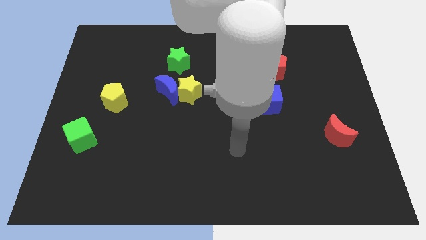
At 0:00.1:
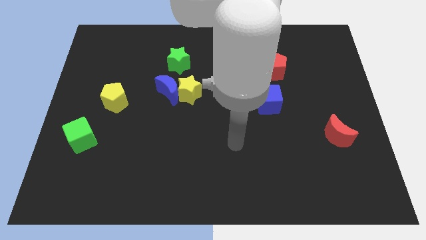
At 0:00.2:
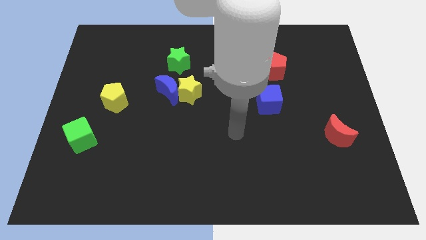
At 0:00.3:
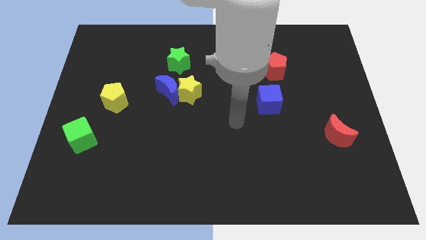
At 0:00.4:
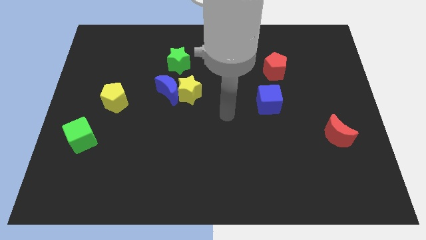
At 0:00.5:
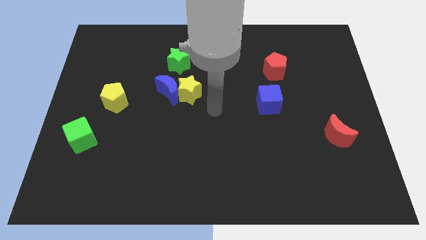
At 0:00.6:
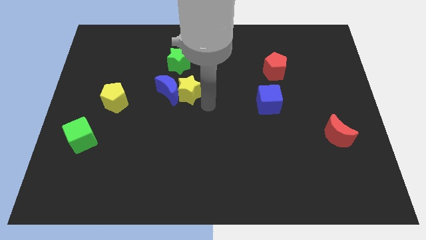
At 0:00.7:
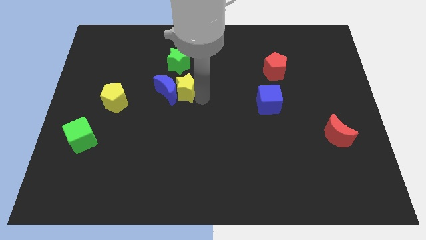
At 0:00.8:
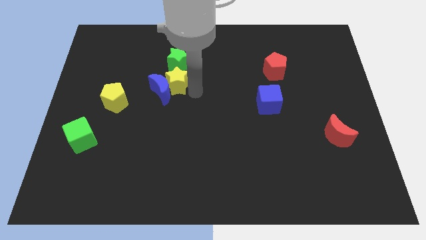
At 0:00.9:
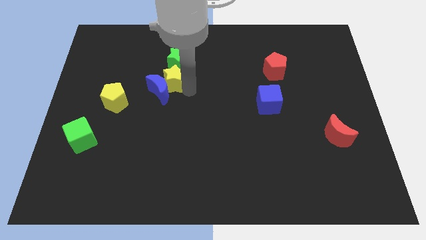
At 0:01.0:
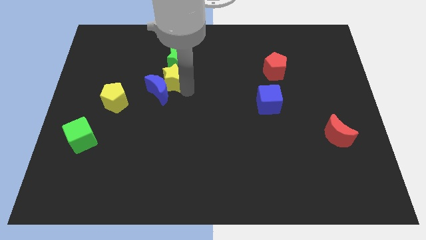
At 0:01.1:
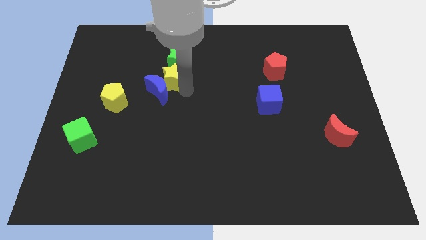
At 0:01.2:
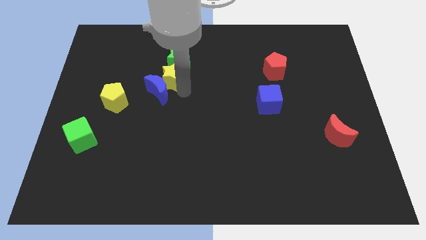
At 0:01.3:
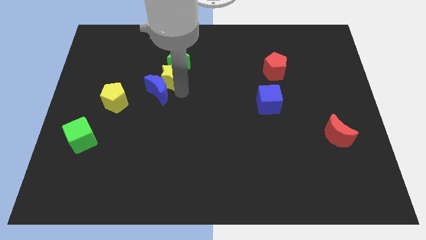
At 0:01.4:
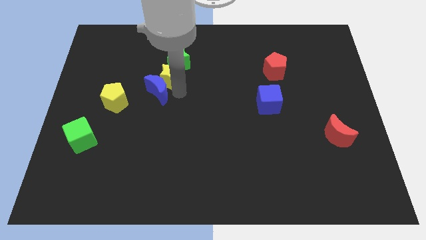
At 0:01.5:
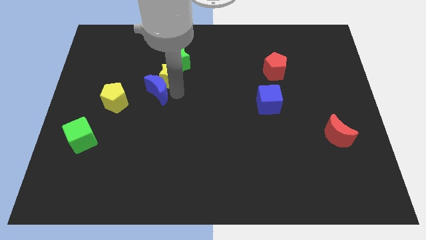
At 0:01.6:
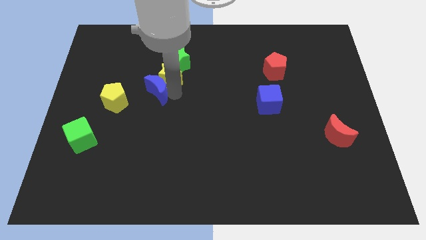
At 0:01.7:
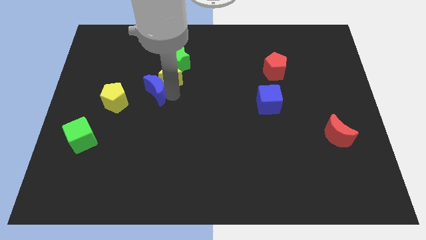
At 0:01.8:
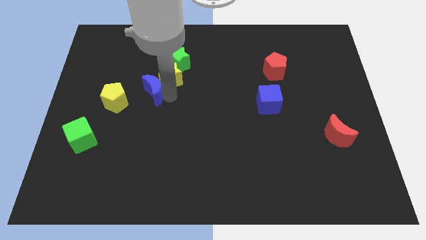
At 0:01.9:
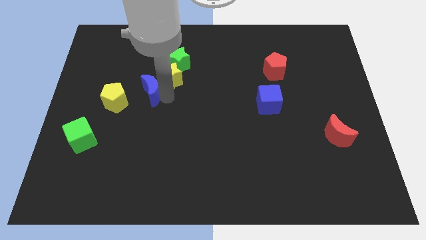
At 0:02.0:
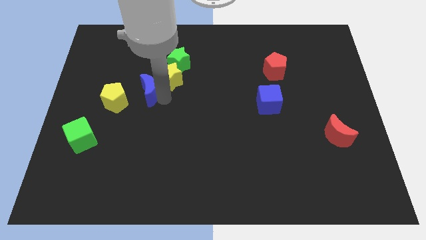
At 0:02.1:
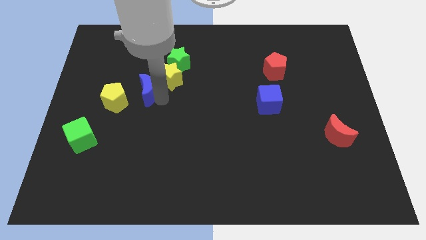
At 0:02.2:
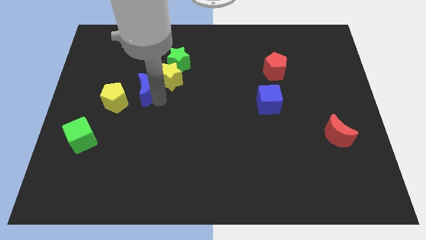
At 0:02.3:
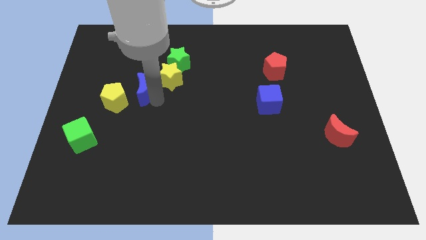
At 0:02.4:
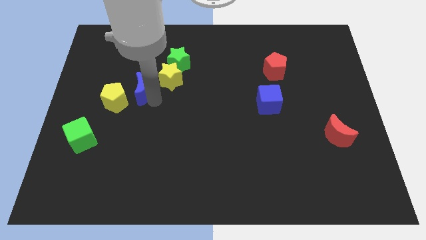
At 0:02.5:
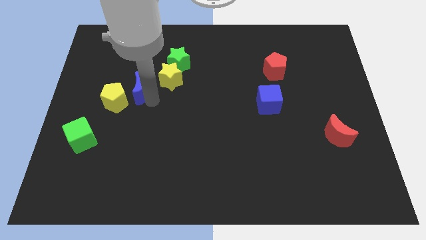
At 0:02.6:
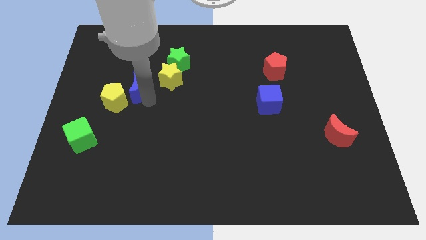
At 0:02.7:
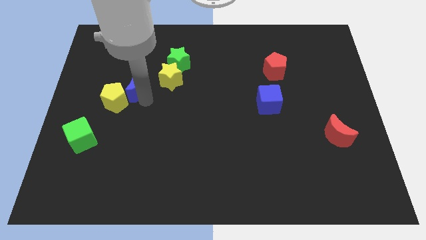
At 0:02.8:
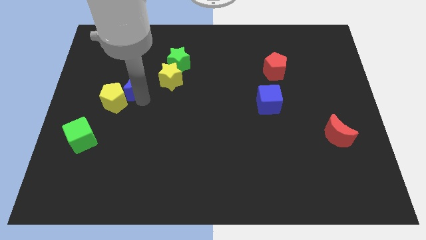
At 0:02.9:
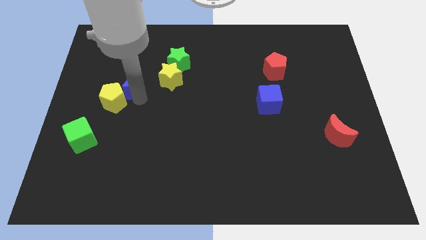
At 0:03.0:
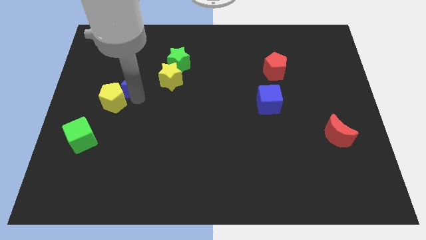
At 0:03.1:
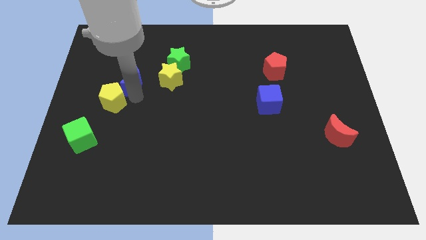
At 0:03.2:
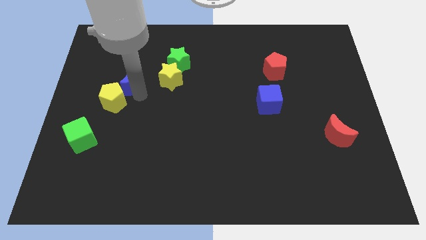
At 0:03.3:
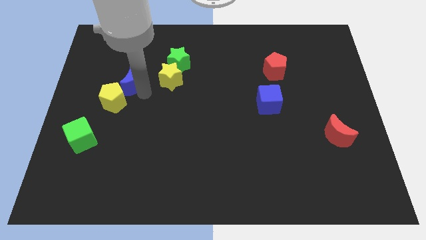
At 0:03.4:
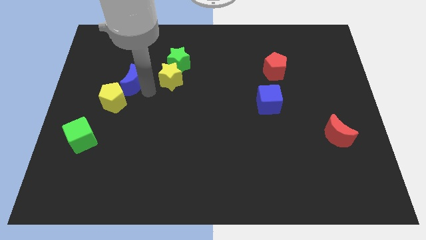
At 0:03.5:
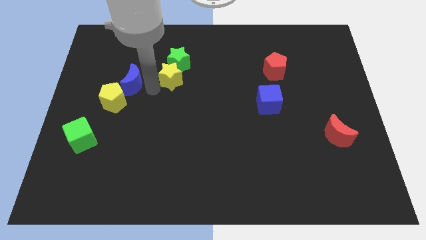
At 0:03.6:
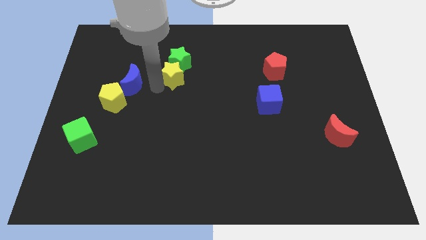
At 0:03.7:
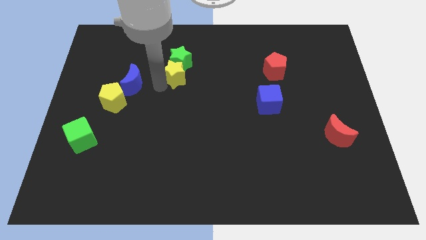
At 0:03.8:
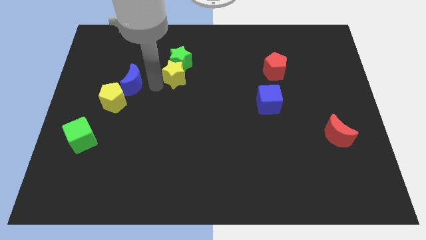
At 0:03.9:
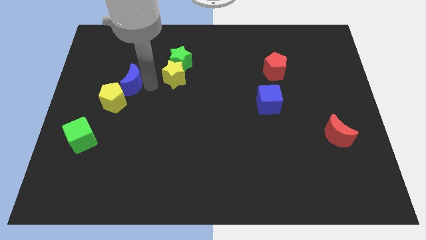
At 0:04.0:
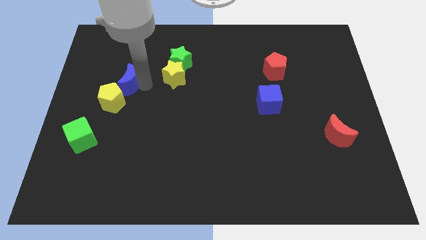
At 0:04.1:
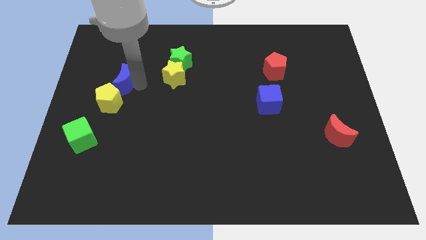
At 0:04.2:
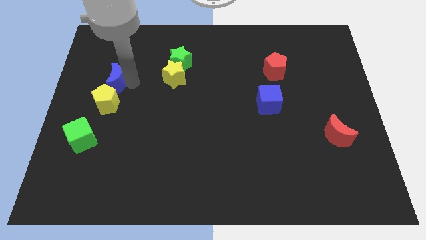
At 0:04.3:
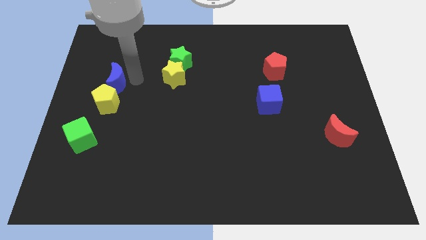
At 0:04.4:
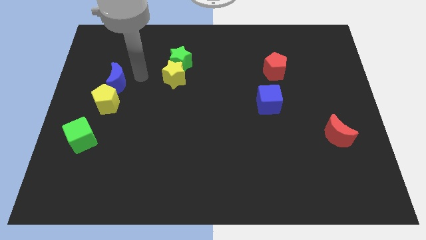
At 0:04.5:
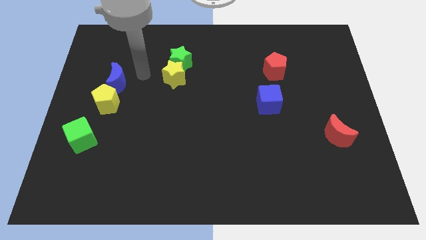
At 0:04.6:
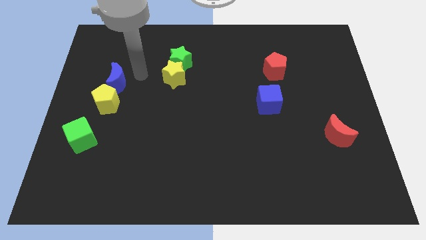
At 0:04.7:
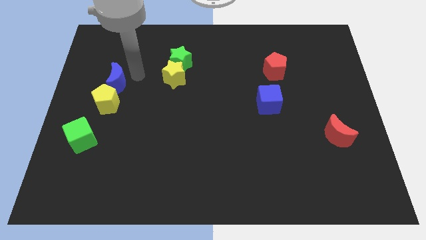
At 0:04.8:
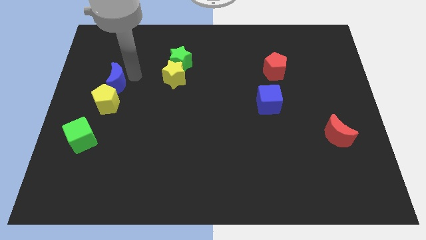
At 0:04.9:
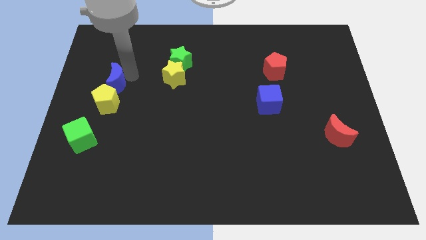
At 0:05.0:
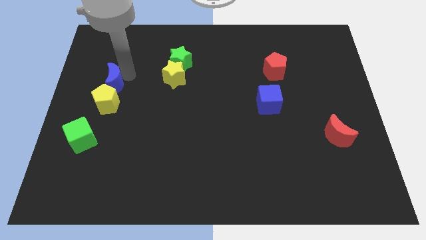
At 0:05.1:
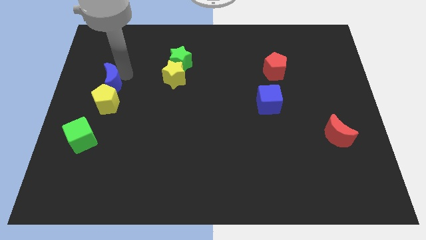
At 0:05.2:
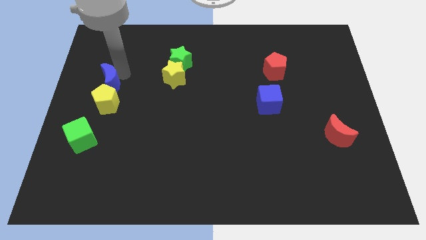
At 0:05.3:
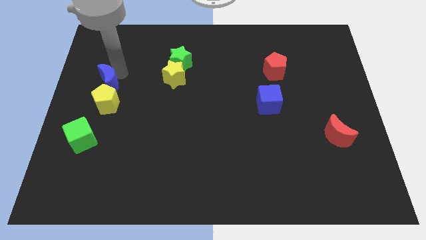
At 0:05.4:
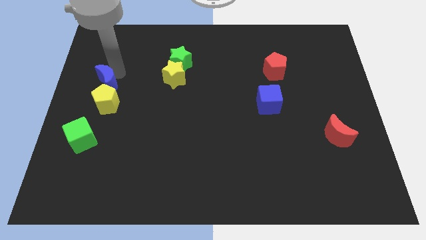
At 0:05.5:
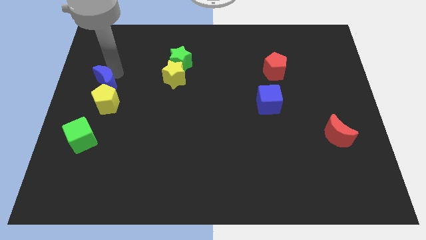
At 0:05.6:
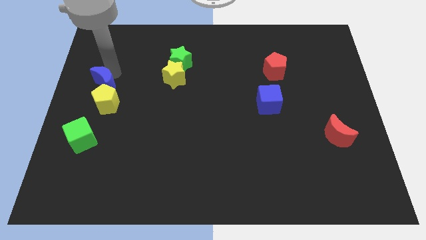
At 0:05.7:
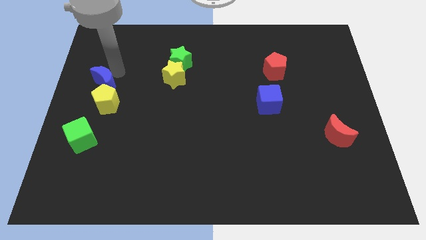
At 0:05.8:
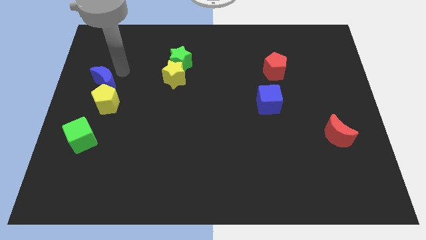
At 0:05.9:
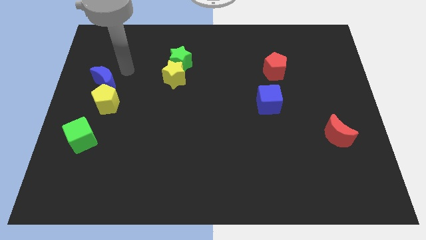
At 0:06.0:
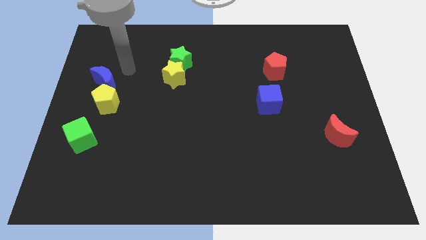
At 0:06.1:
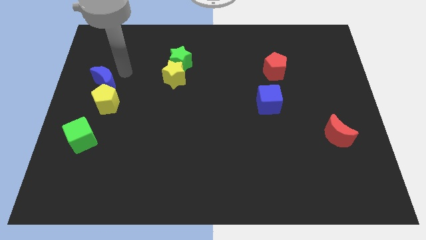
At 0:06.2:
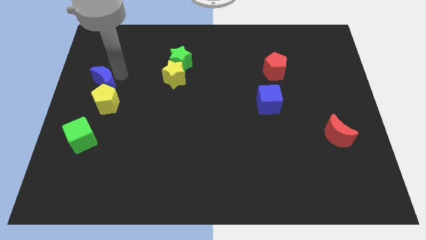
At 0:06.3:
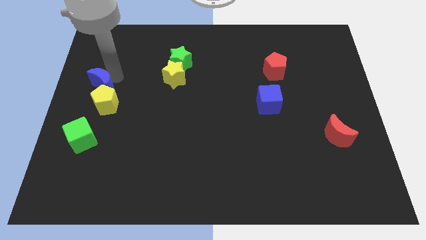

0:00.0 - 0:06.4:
move the blue moon to the top side of the green cube

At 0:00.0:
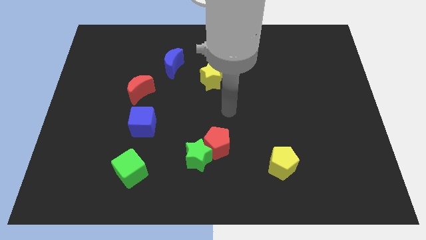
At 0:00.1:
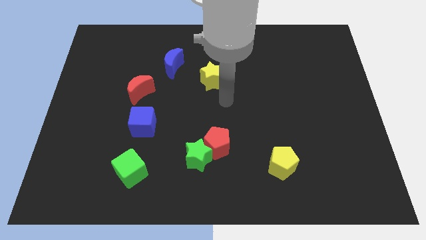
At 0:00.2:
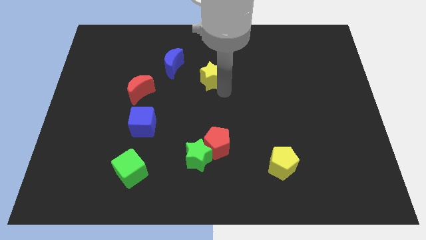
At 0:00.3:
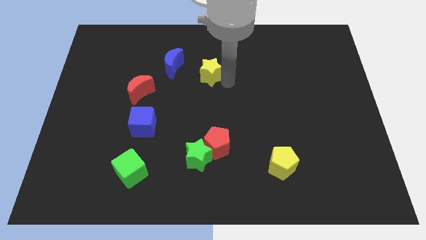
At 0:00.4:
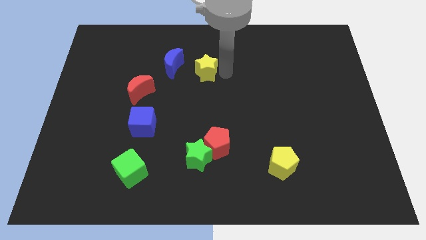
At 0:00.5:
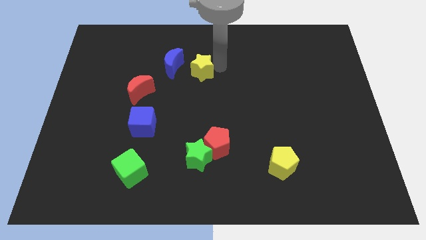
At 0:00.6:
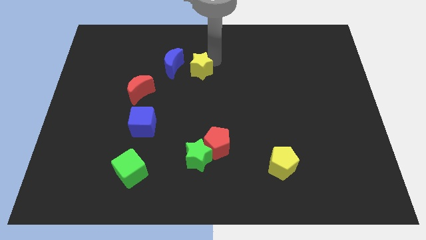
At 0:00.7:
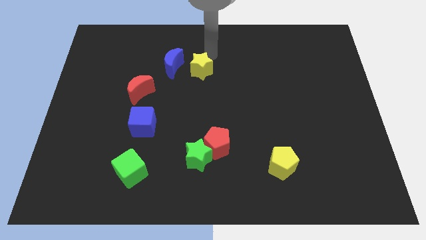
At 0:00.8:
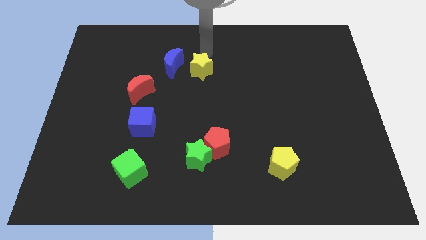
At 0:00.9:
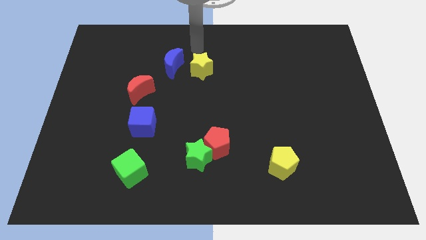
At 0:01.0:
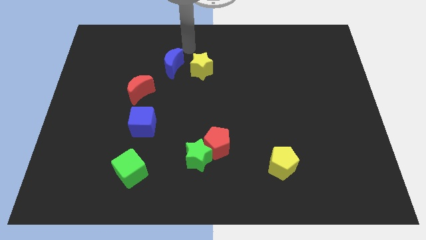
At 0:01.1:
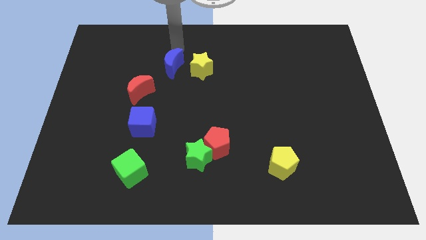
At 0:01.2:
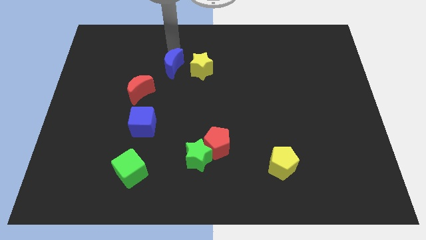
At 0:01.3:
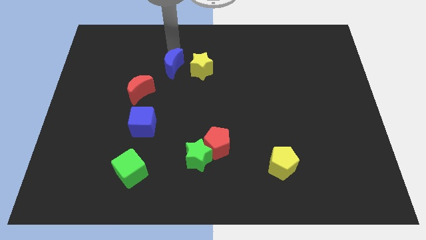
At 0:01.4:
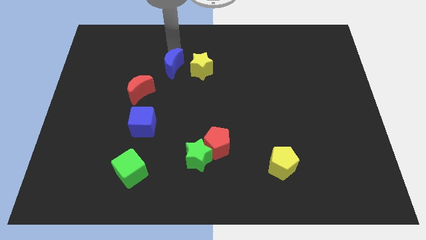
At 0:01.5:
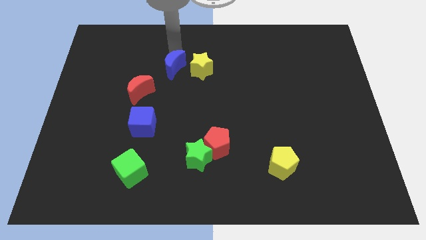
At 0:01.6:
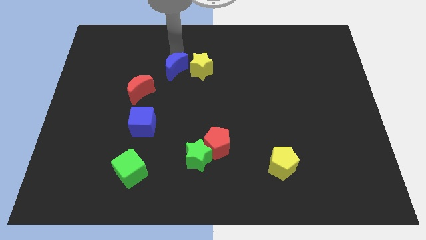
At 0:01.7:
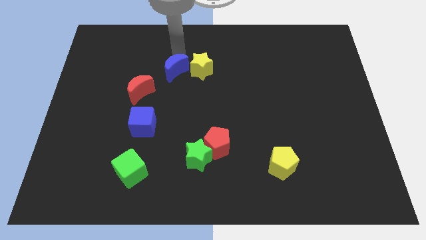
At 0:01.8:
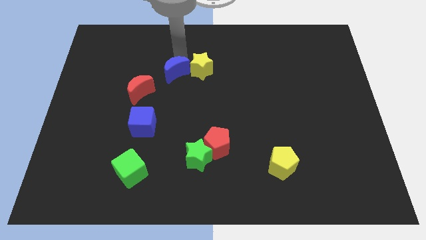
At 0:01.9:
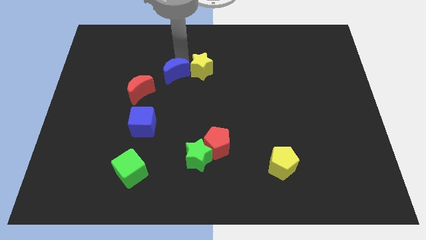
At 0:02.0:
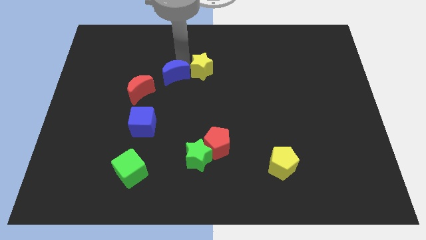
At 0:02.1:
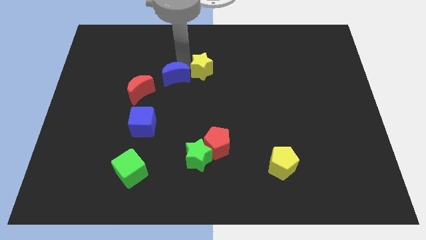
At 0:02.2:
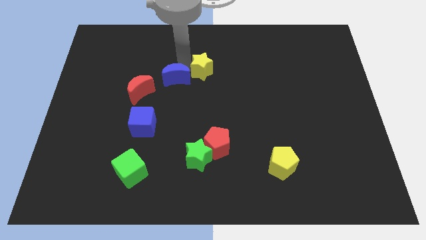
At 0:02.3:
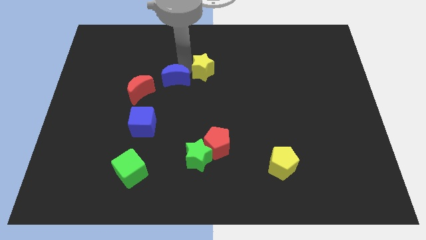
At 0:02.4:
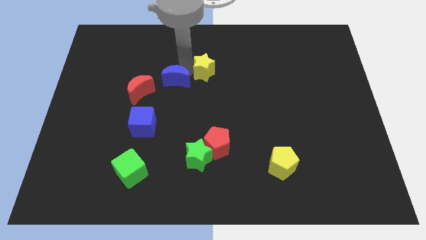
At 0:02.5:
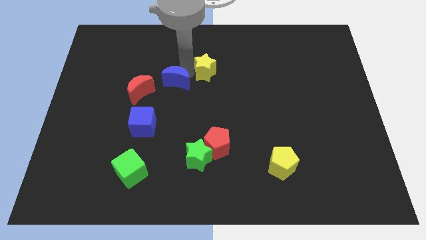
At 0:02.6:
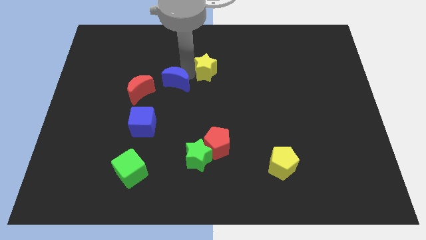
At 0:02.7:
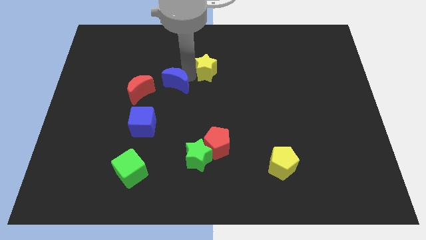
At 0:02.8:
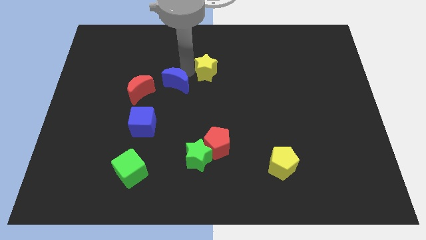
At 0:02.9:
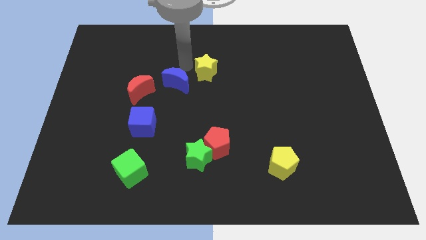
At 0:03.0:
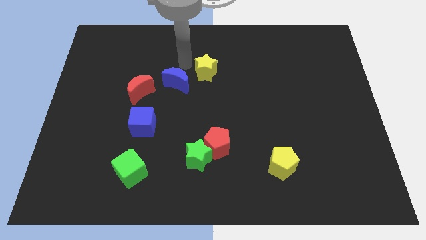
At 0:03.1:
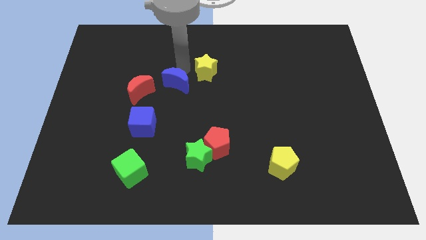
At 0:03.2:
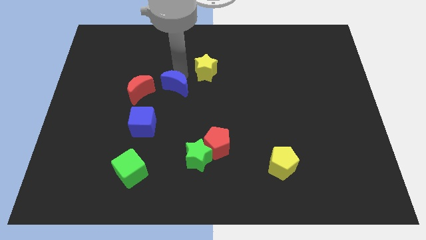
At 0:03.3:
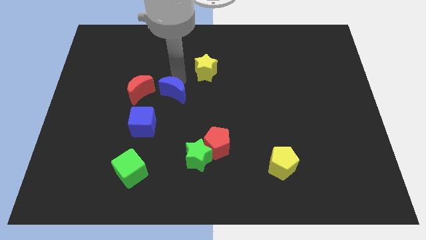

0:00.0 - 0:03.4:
slide the blue moon to the top right of the blue cube
